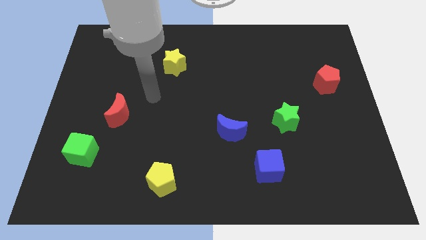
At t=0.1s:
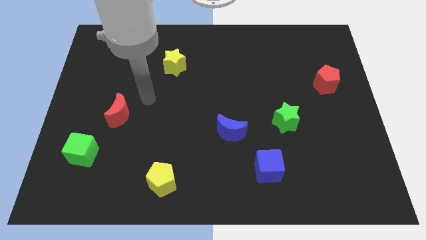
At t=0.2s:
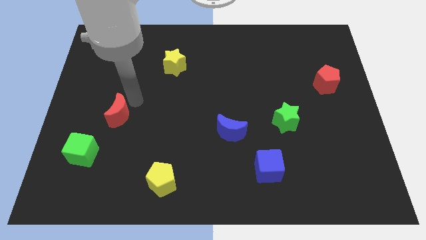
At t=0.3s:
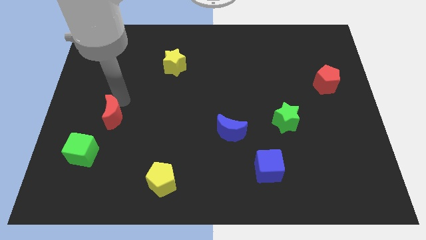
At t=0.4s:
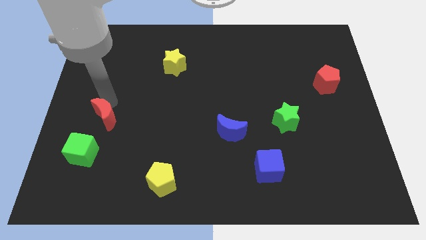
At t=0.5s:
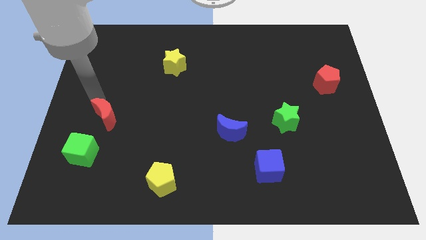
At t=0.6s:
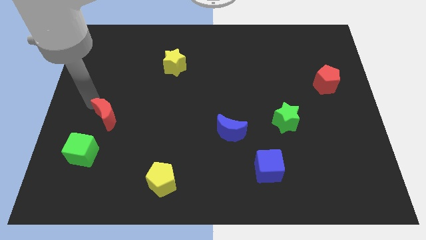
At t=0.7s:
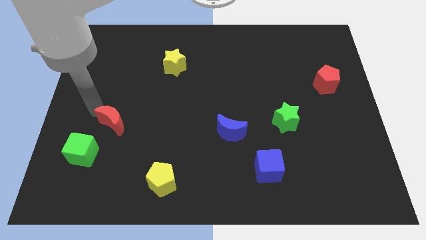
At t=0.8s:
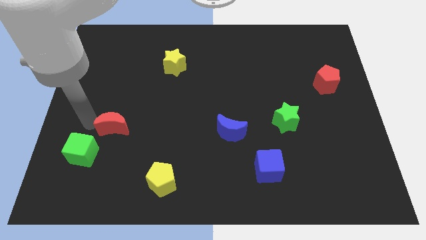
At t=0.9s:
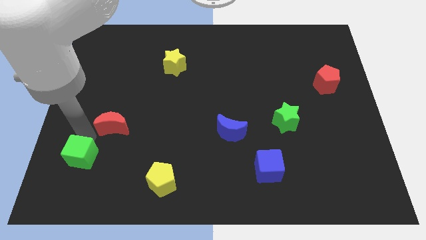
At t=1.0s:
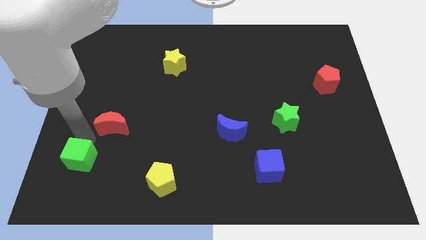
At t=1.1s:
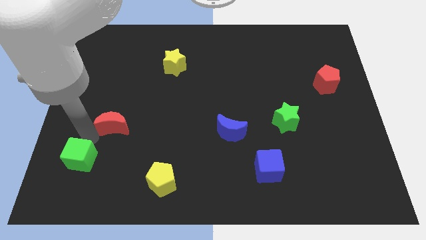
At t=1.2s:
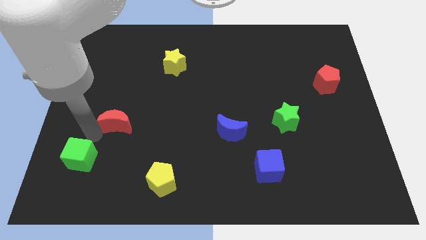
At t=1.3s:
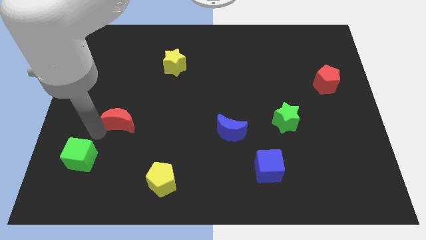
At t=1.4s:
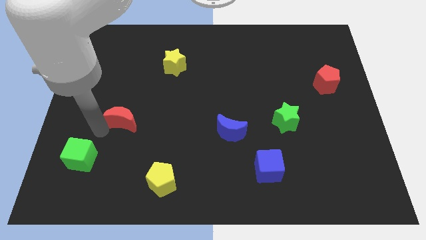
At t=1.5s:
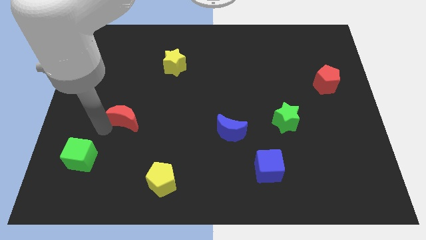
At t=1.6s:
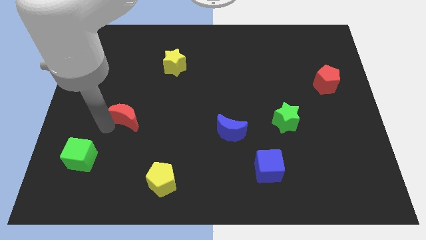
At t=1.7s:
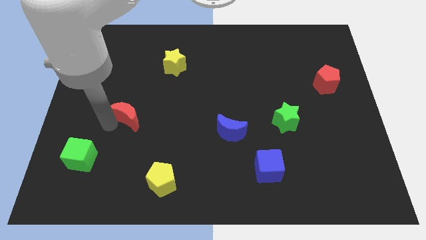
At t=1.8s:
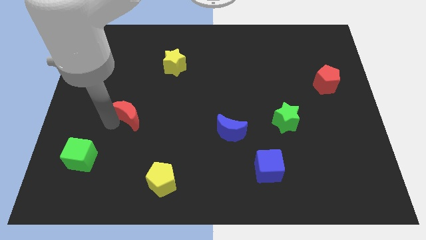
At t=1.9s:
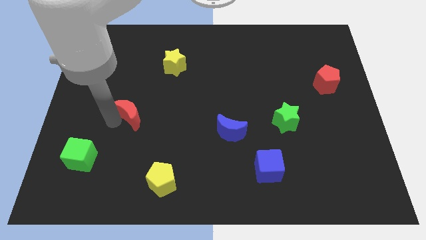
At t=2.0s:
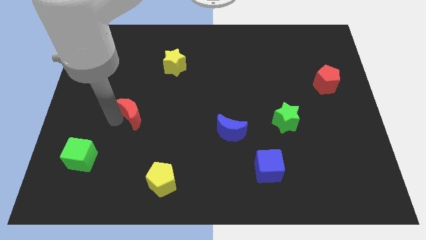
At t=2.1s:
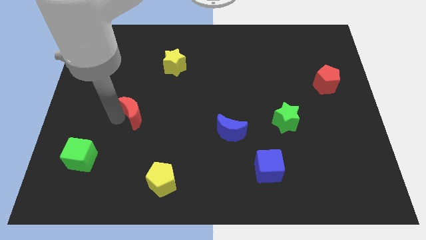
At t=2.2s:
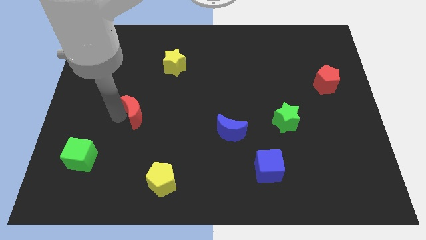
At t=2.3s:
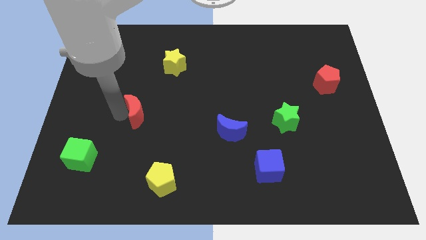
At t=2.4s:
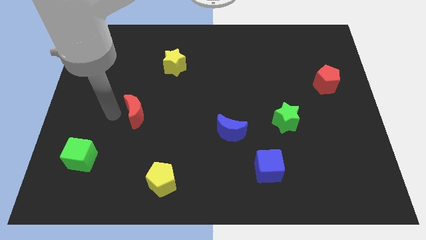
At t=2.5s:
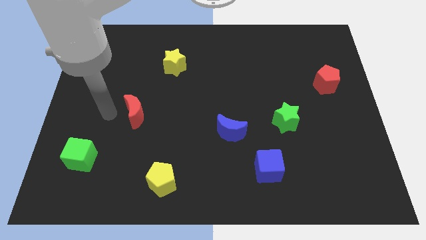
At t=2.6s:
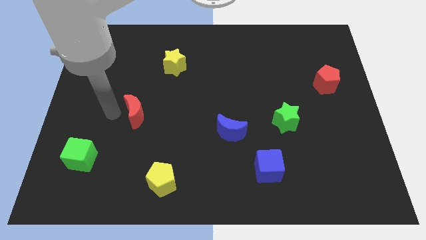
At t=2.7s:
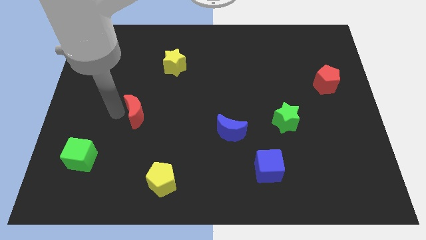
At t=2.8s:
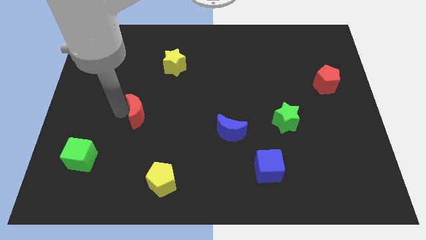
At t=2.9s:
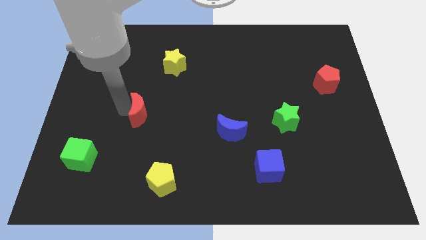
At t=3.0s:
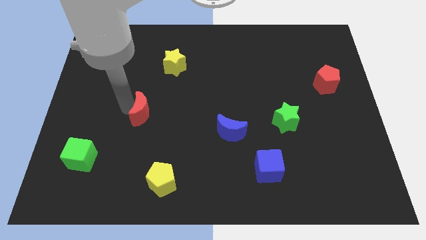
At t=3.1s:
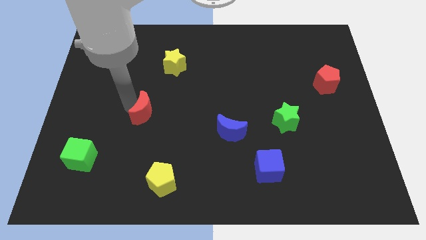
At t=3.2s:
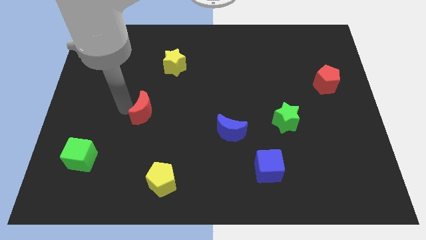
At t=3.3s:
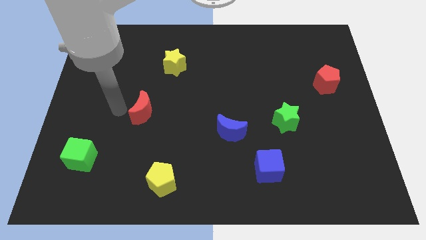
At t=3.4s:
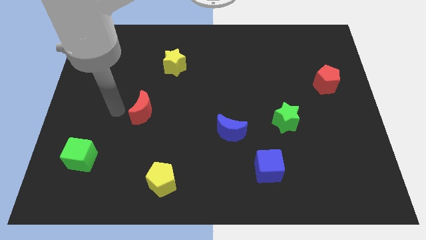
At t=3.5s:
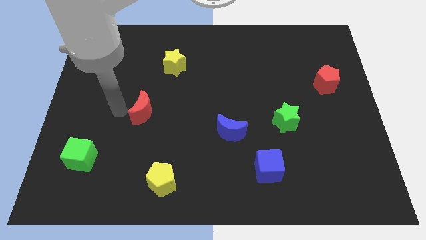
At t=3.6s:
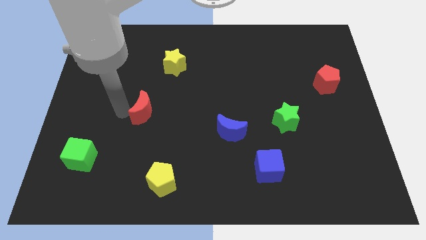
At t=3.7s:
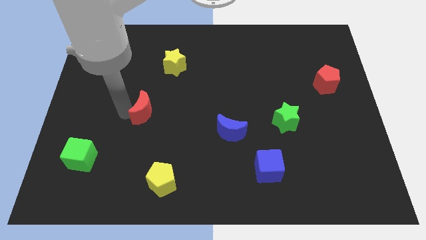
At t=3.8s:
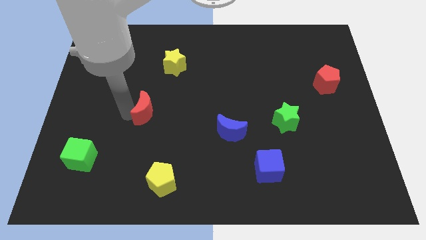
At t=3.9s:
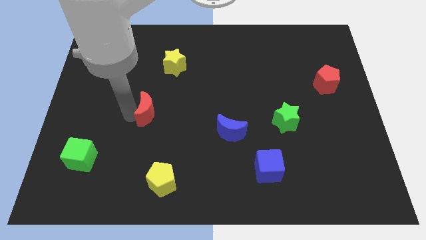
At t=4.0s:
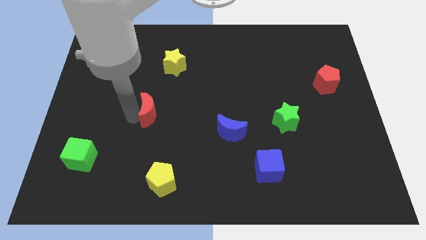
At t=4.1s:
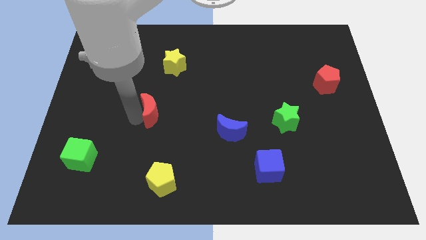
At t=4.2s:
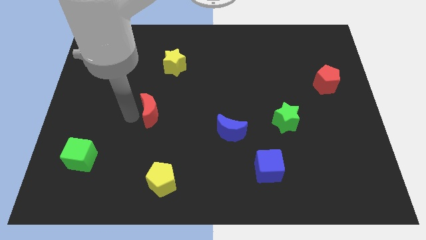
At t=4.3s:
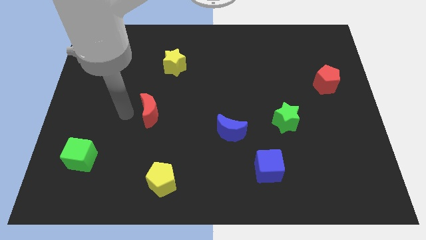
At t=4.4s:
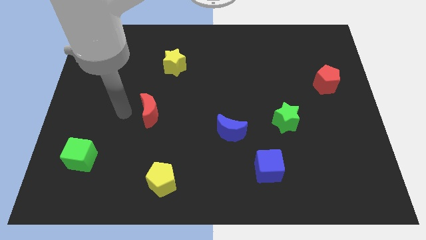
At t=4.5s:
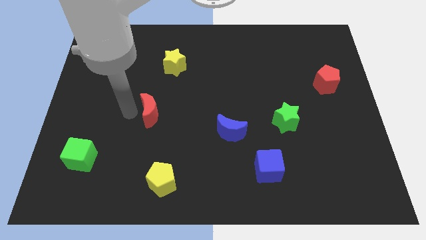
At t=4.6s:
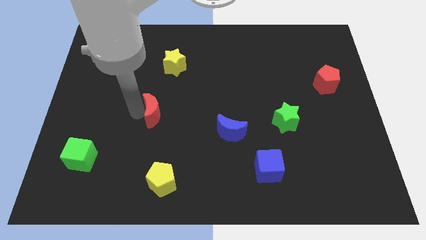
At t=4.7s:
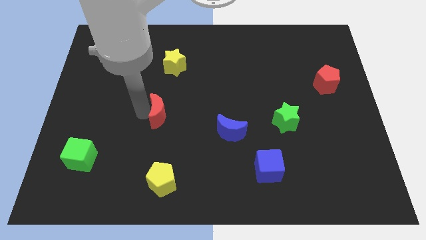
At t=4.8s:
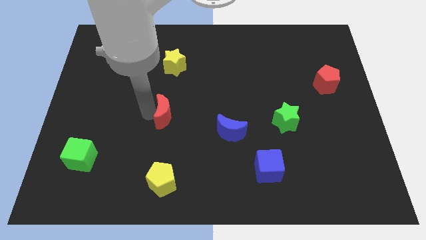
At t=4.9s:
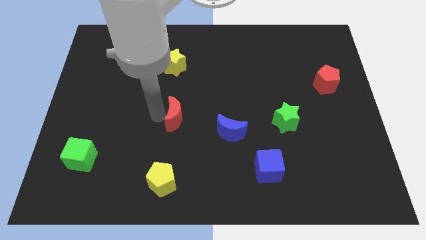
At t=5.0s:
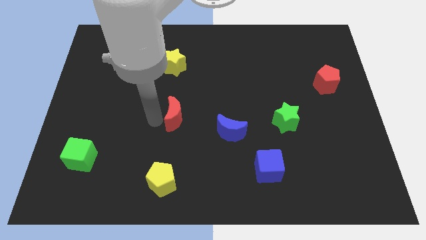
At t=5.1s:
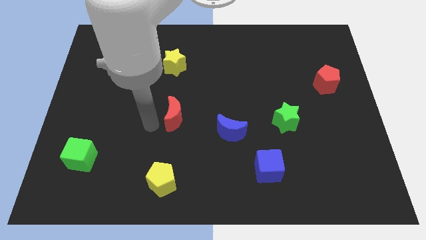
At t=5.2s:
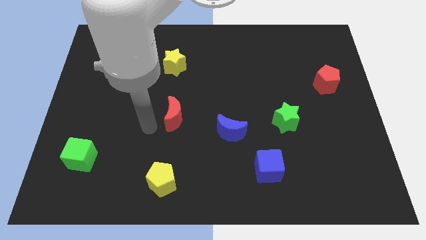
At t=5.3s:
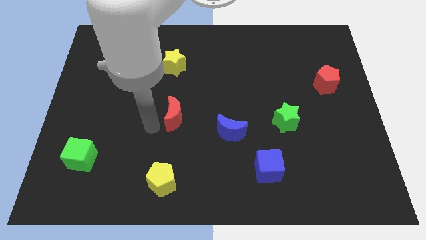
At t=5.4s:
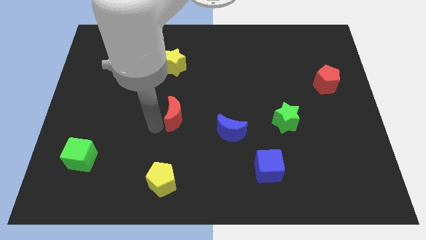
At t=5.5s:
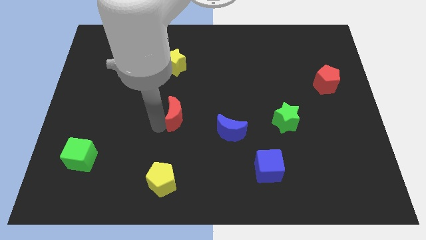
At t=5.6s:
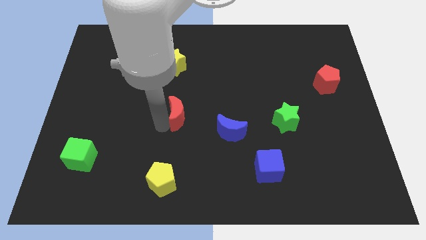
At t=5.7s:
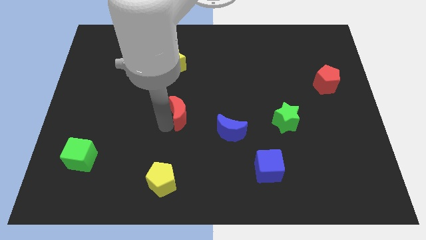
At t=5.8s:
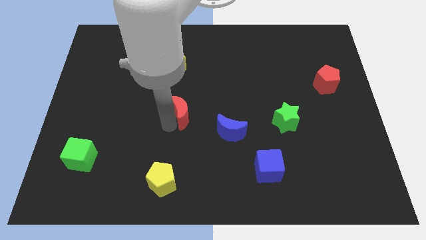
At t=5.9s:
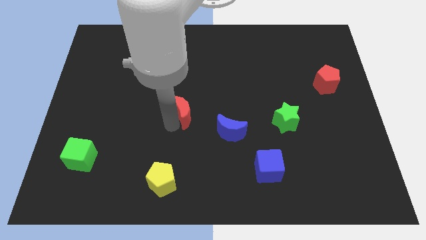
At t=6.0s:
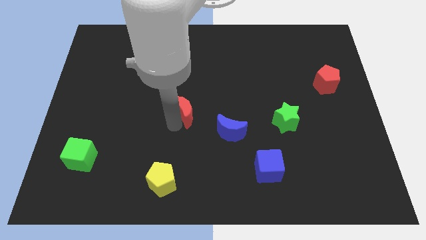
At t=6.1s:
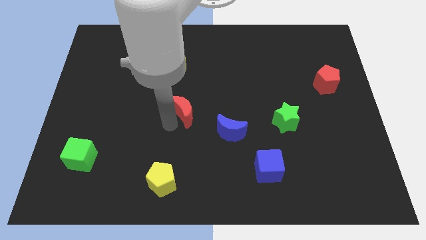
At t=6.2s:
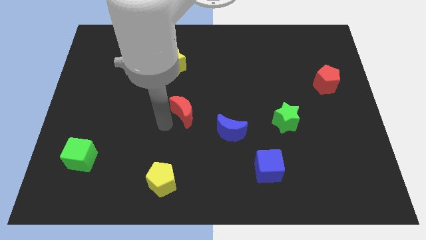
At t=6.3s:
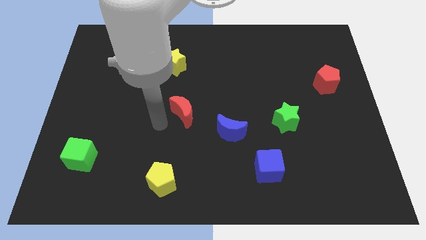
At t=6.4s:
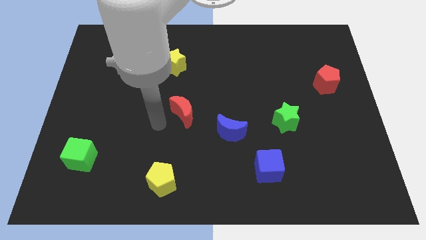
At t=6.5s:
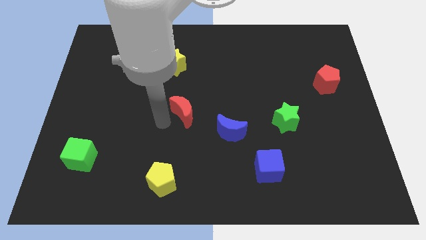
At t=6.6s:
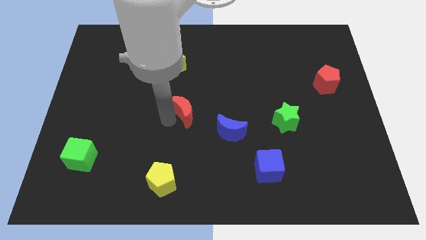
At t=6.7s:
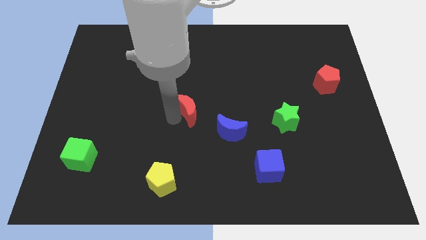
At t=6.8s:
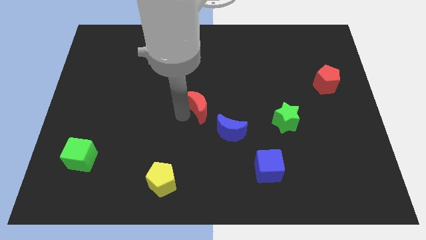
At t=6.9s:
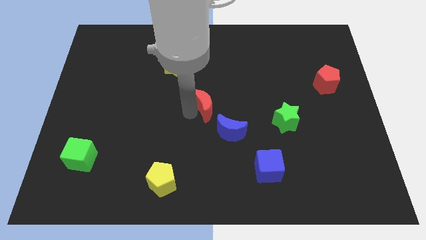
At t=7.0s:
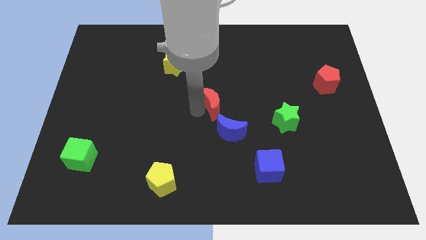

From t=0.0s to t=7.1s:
slide the red moon right

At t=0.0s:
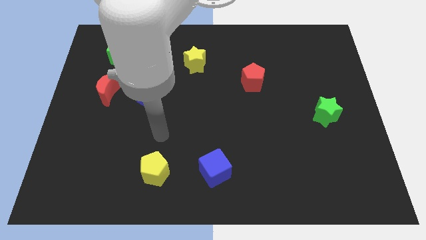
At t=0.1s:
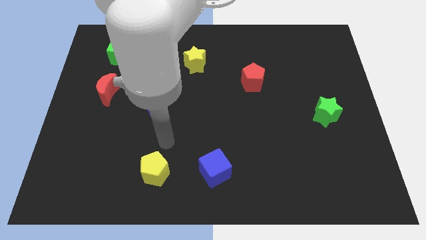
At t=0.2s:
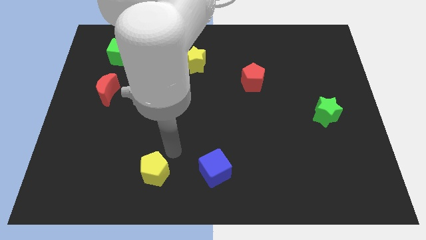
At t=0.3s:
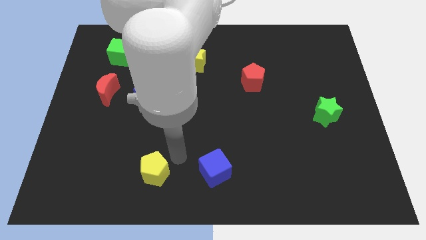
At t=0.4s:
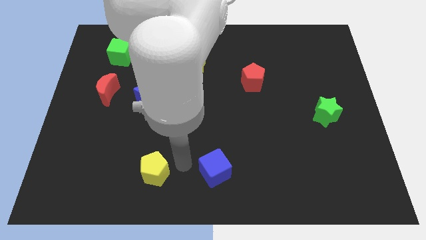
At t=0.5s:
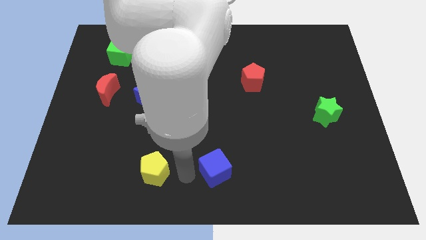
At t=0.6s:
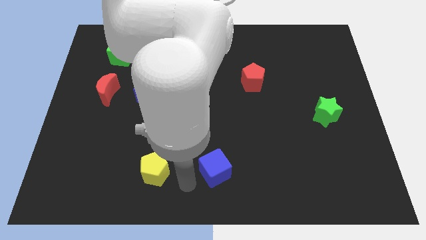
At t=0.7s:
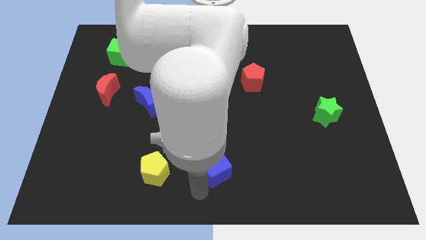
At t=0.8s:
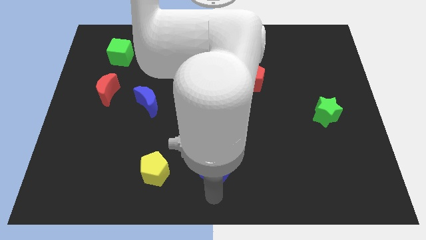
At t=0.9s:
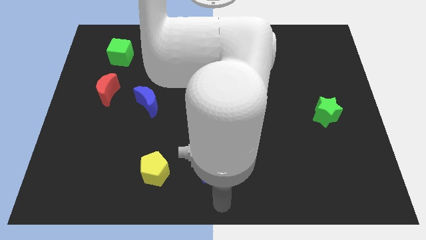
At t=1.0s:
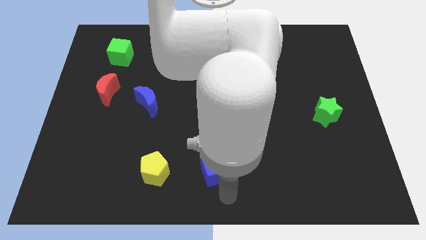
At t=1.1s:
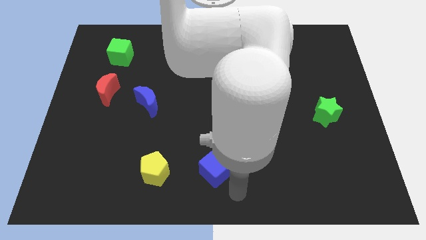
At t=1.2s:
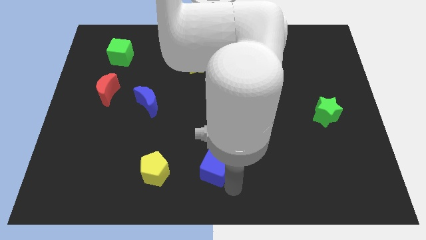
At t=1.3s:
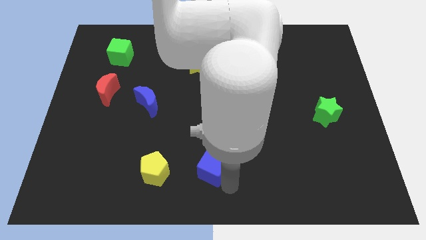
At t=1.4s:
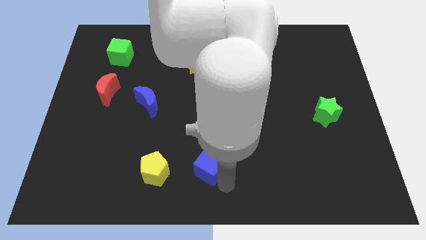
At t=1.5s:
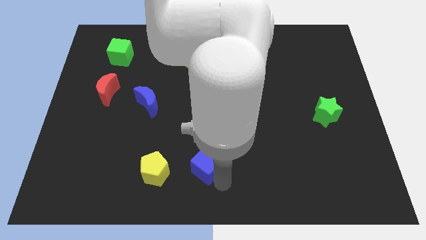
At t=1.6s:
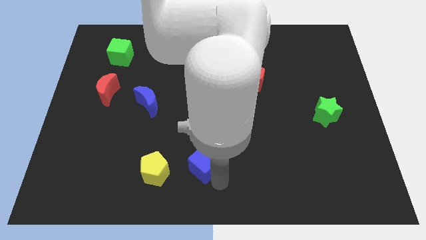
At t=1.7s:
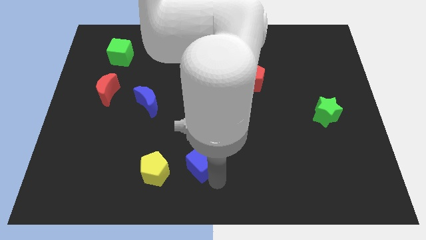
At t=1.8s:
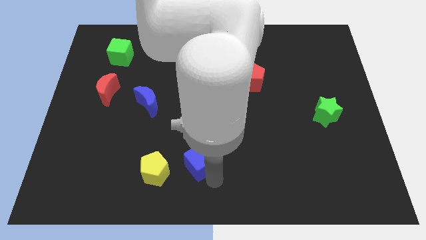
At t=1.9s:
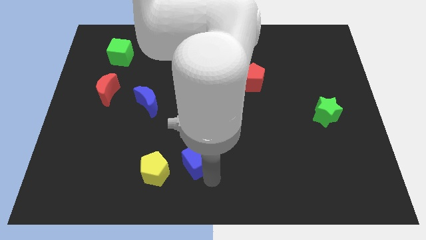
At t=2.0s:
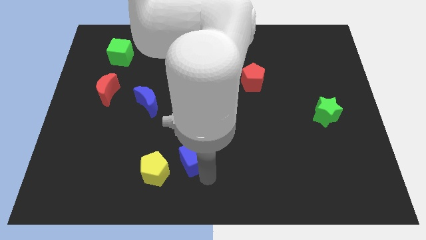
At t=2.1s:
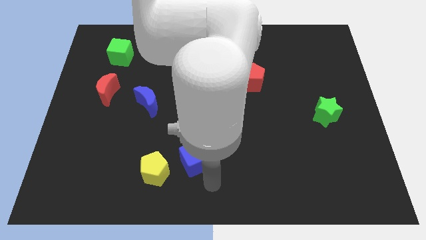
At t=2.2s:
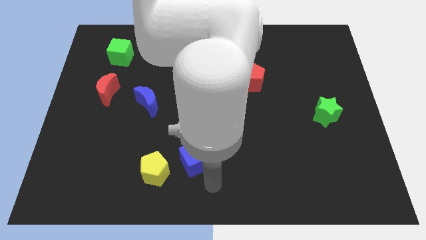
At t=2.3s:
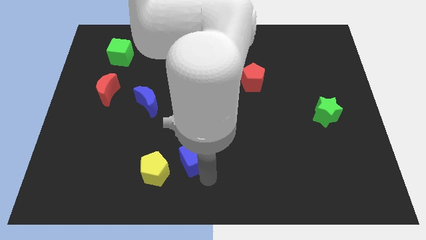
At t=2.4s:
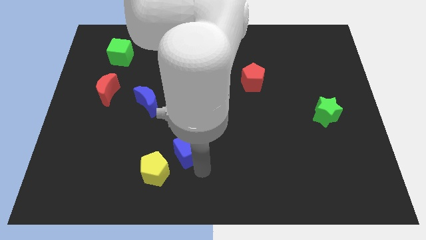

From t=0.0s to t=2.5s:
slightly move the blue cube diagonally up and to the left
